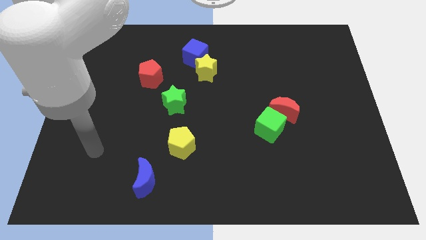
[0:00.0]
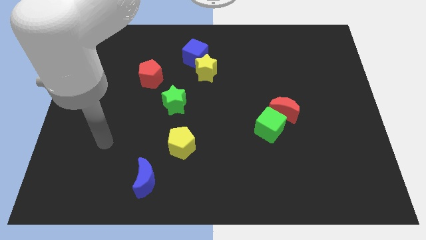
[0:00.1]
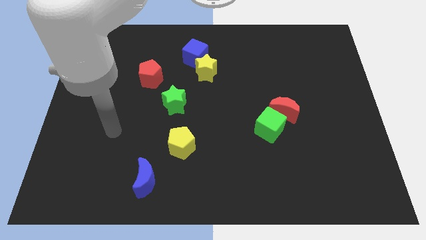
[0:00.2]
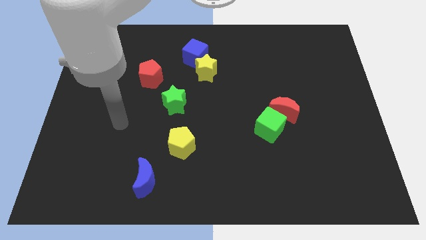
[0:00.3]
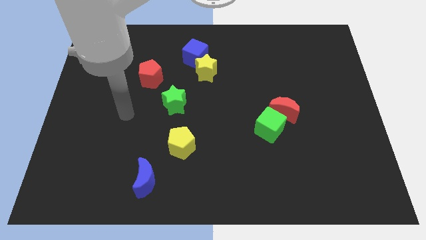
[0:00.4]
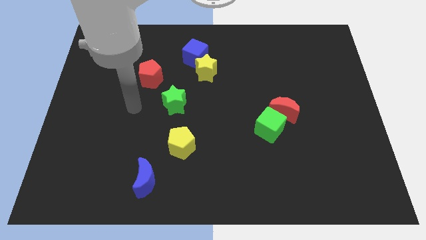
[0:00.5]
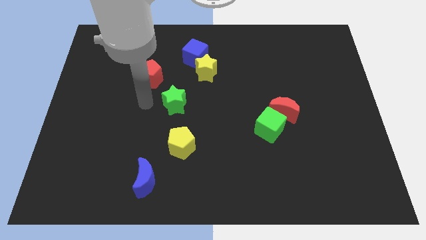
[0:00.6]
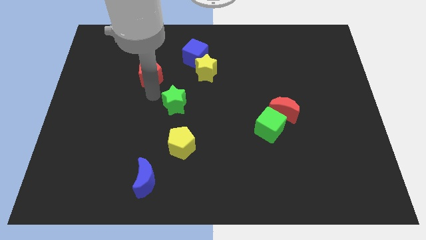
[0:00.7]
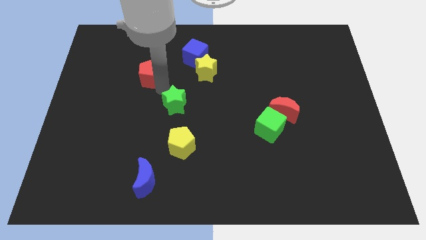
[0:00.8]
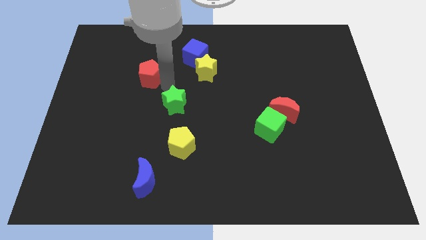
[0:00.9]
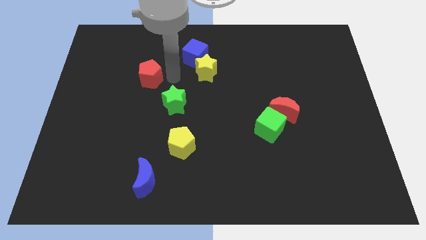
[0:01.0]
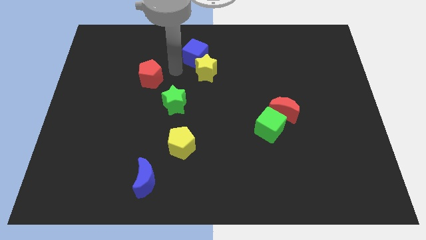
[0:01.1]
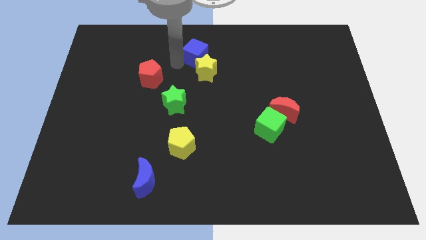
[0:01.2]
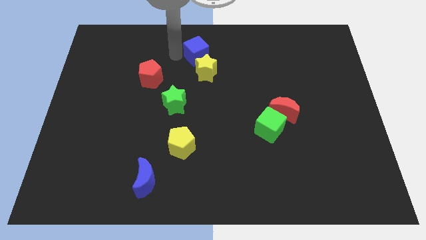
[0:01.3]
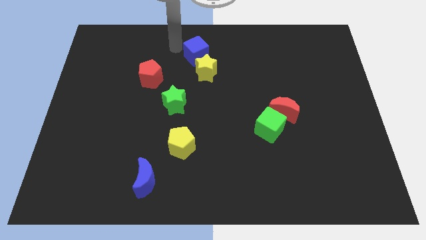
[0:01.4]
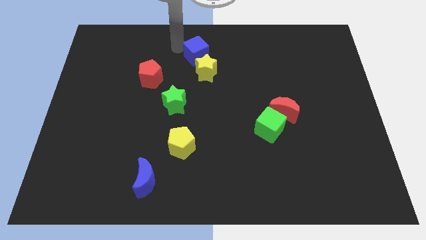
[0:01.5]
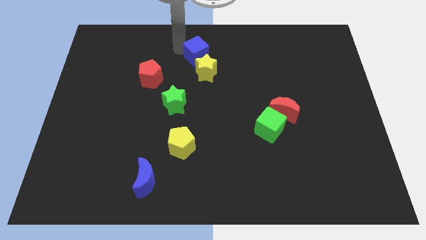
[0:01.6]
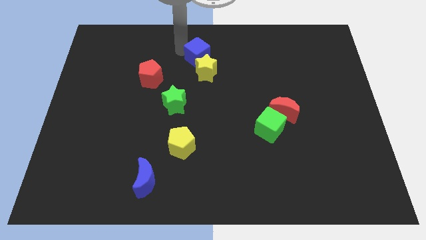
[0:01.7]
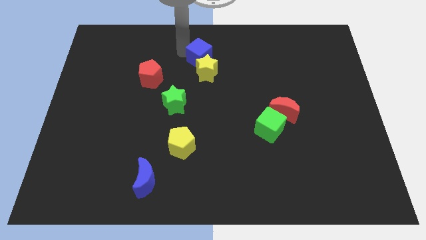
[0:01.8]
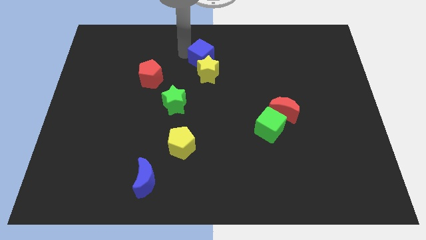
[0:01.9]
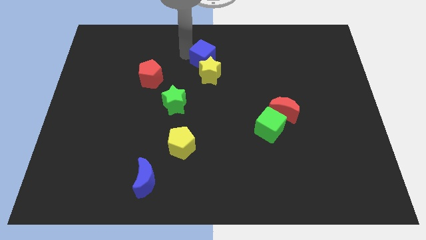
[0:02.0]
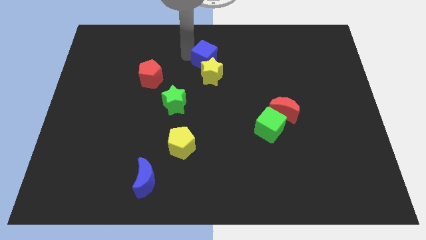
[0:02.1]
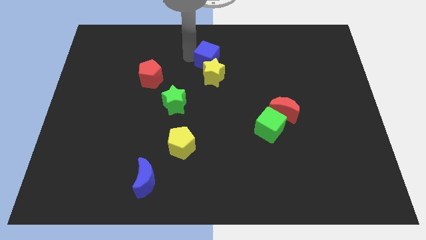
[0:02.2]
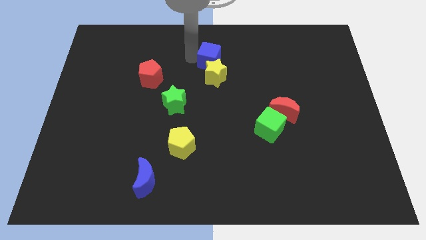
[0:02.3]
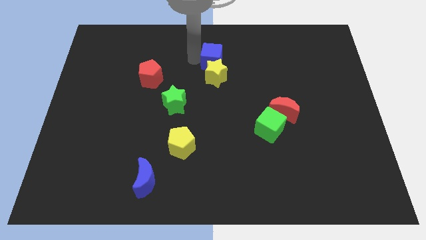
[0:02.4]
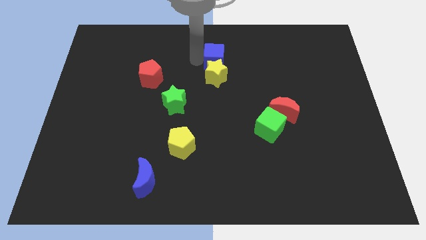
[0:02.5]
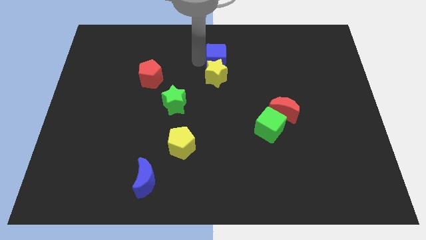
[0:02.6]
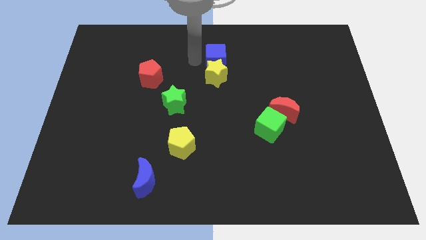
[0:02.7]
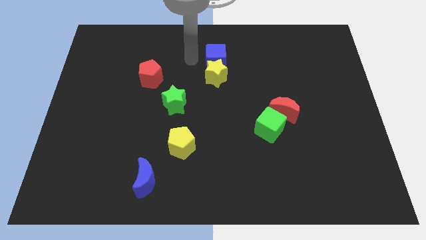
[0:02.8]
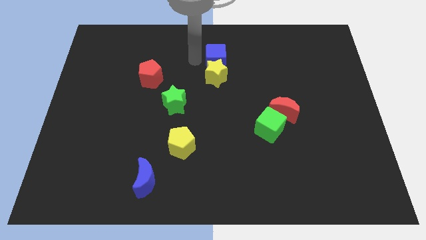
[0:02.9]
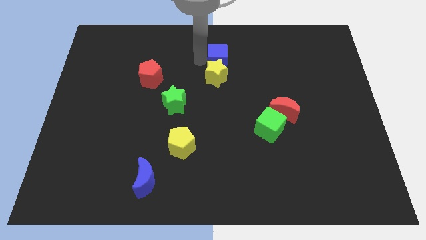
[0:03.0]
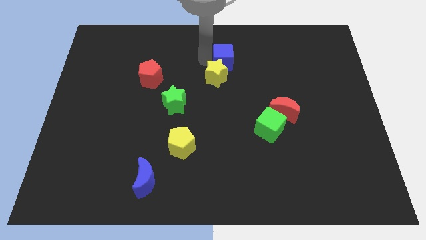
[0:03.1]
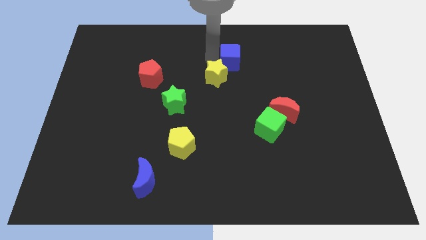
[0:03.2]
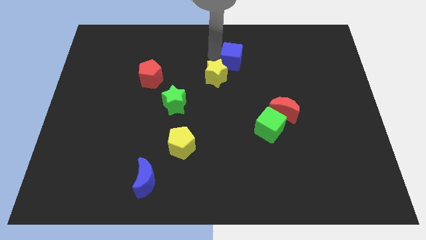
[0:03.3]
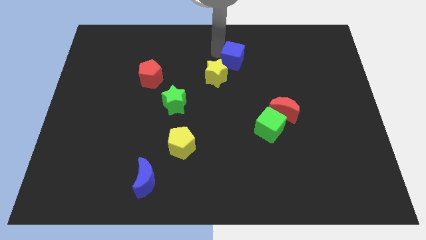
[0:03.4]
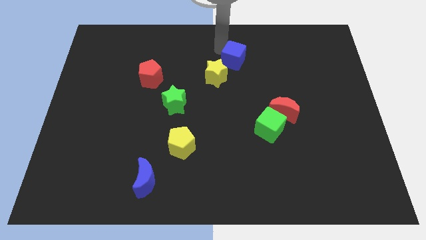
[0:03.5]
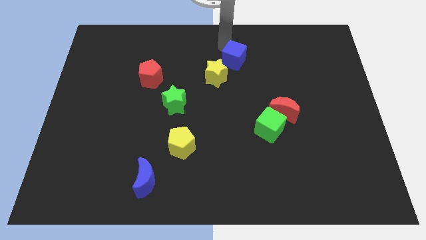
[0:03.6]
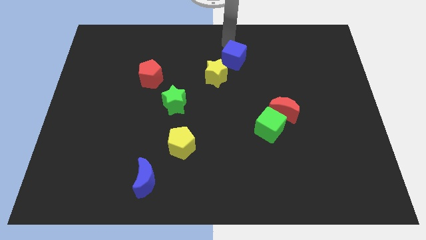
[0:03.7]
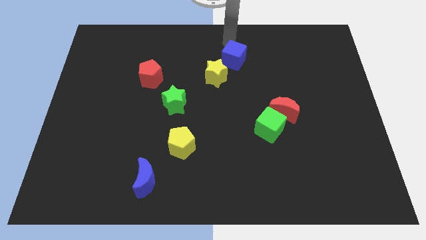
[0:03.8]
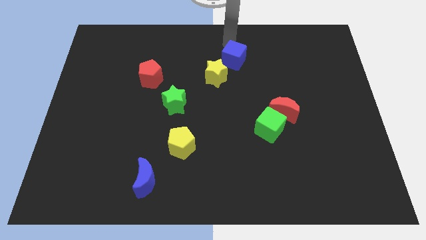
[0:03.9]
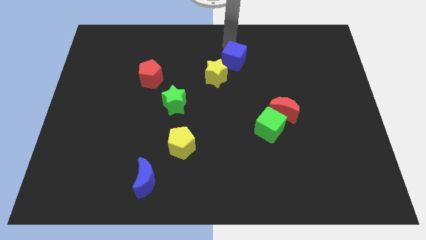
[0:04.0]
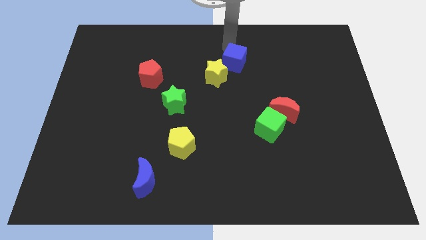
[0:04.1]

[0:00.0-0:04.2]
move the blue cube a little downwards and then right

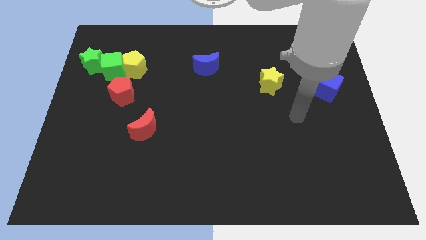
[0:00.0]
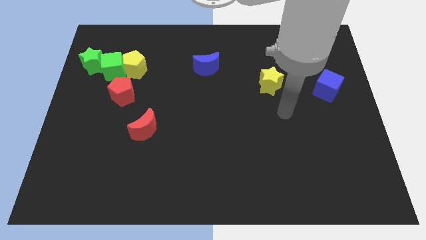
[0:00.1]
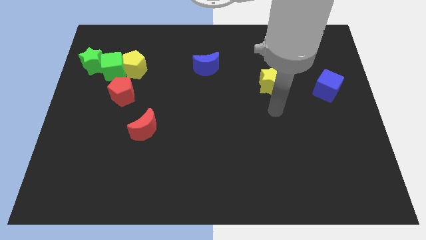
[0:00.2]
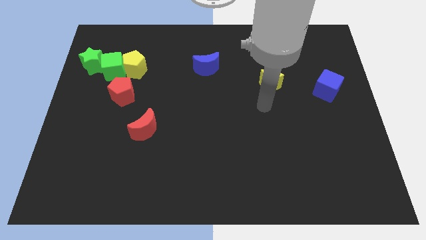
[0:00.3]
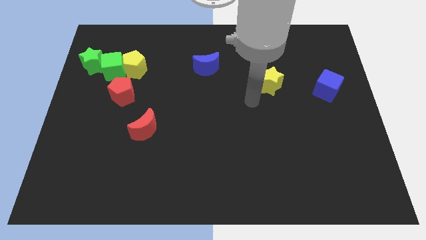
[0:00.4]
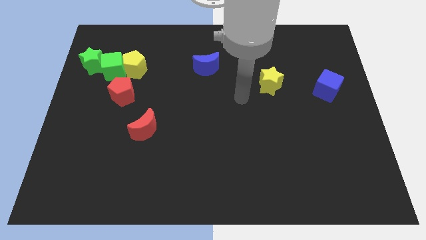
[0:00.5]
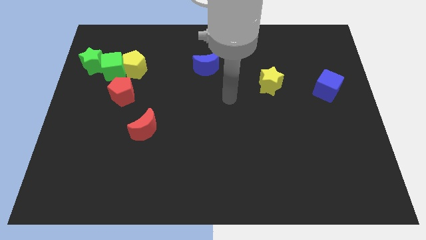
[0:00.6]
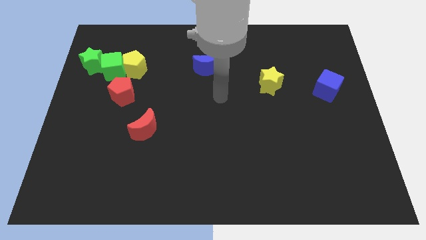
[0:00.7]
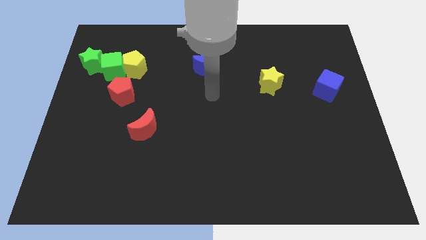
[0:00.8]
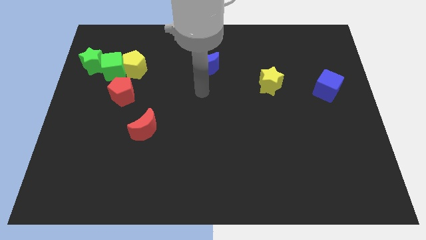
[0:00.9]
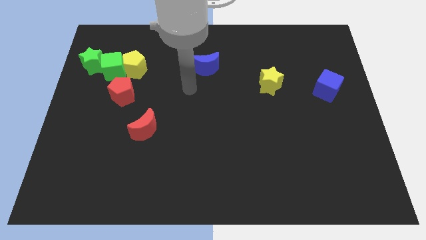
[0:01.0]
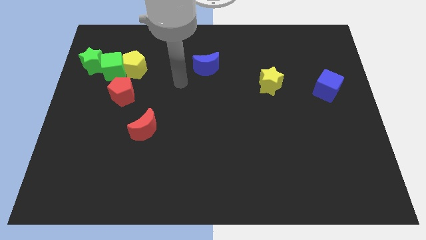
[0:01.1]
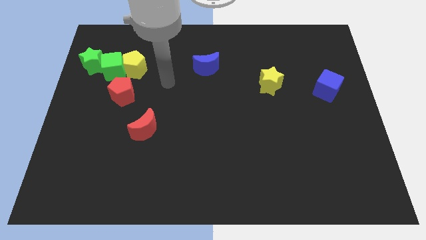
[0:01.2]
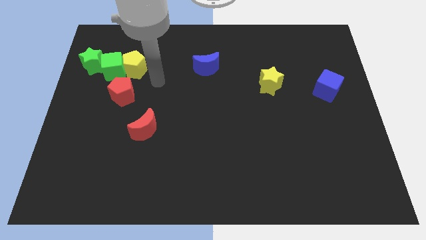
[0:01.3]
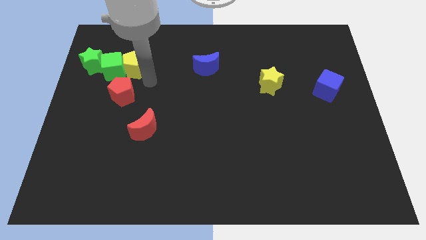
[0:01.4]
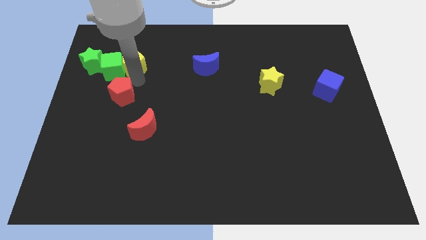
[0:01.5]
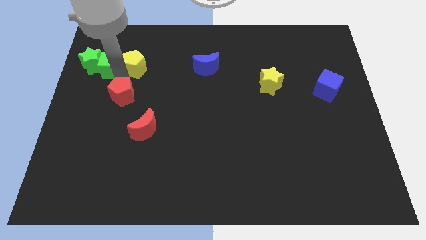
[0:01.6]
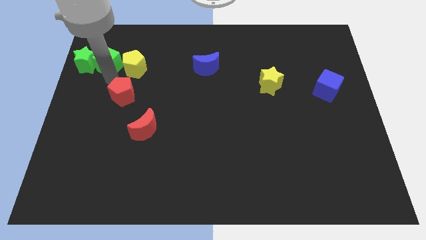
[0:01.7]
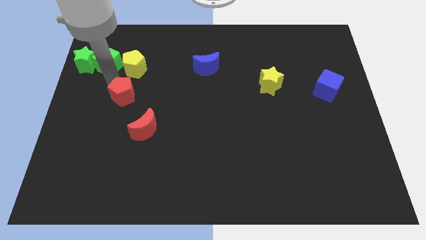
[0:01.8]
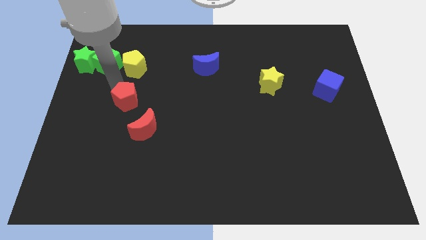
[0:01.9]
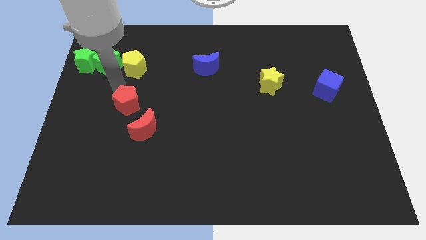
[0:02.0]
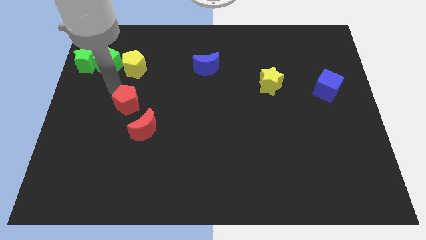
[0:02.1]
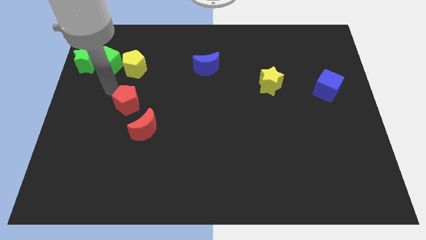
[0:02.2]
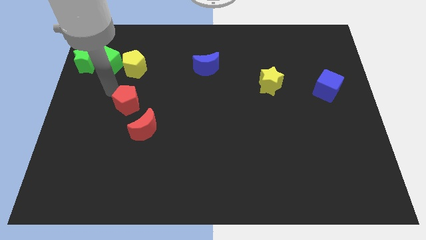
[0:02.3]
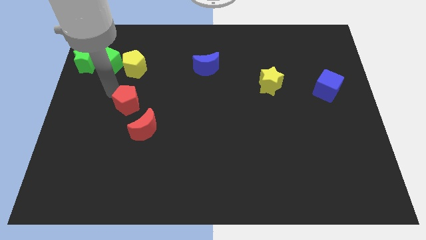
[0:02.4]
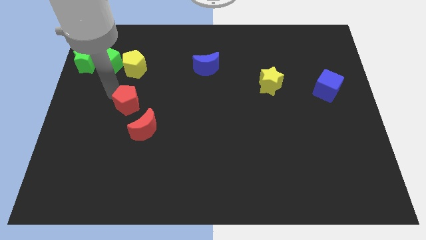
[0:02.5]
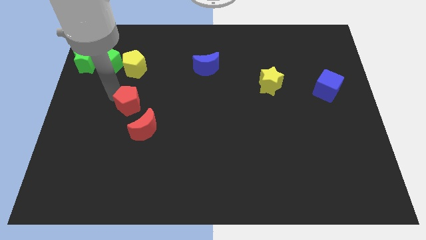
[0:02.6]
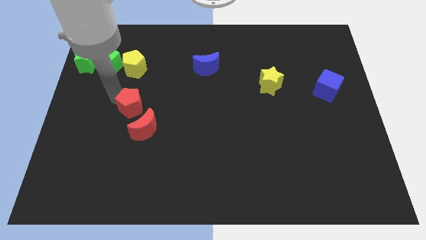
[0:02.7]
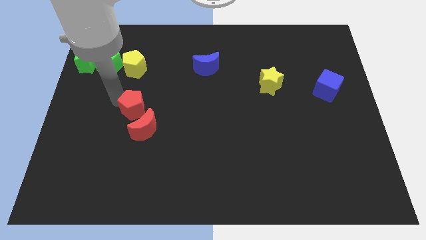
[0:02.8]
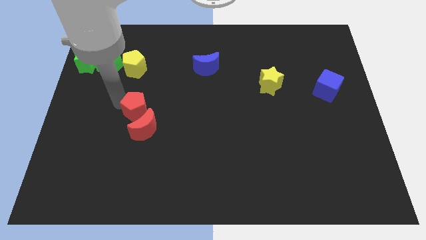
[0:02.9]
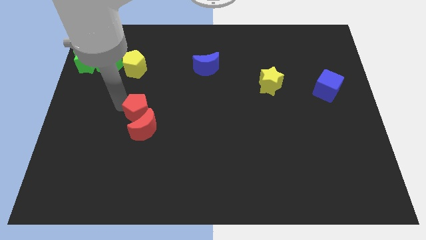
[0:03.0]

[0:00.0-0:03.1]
push the red pentagon a little bit down and then to the right

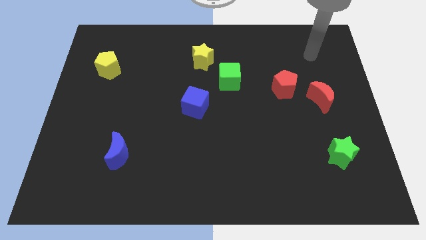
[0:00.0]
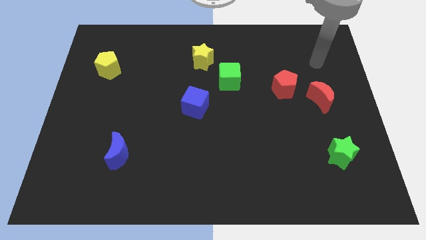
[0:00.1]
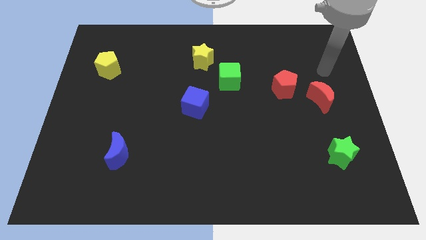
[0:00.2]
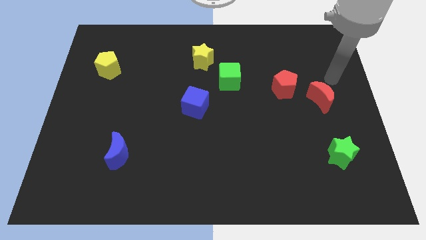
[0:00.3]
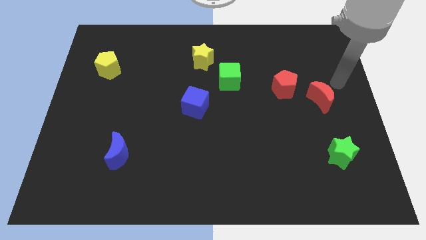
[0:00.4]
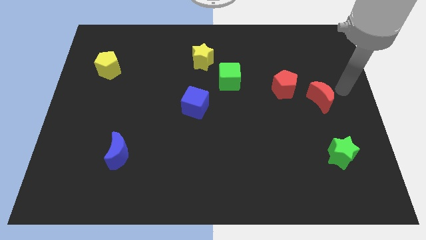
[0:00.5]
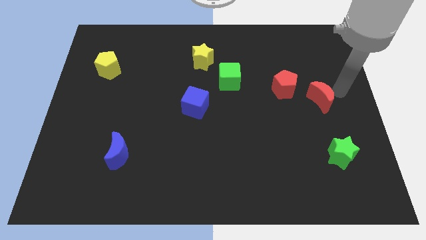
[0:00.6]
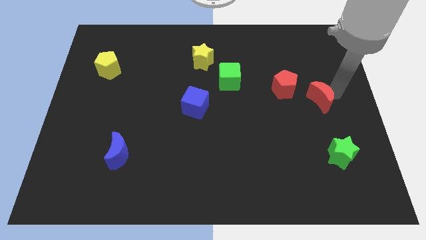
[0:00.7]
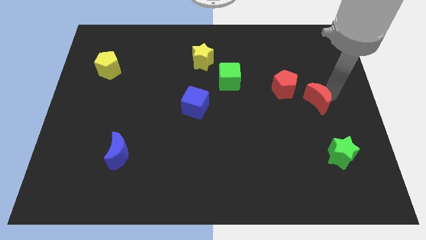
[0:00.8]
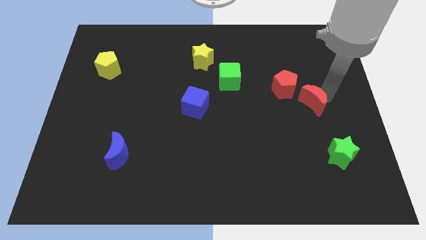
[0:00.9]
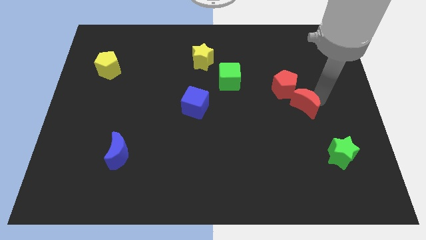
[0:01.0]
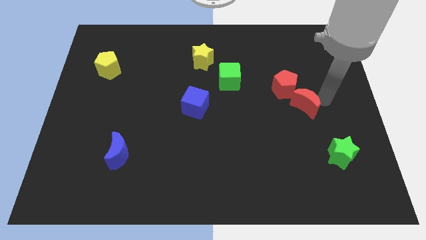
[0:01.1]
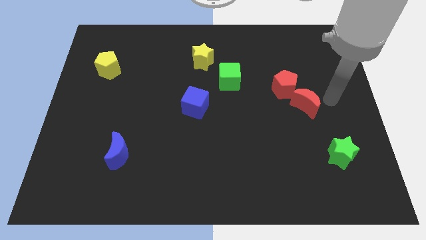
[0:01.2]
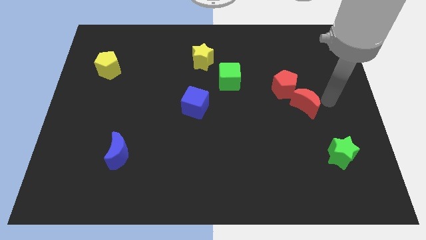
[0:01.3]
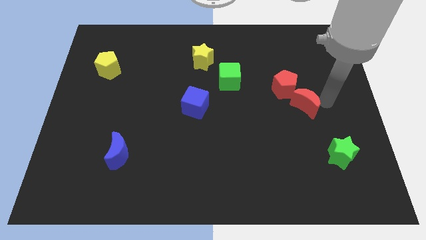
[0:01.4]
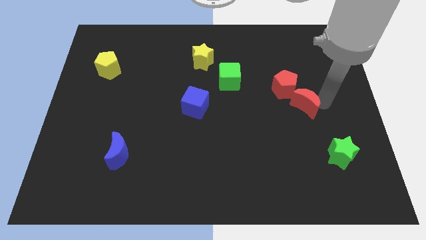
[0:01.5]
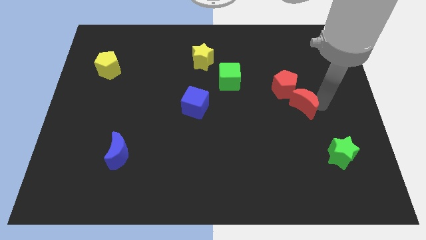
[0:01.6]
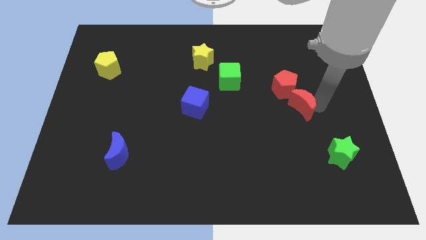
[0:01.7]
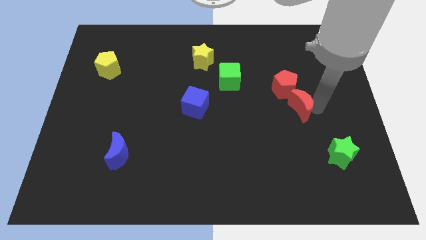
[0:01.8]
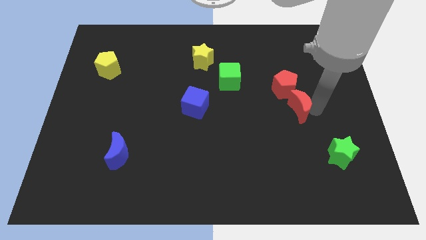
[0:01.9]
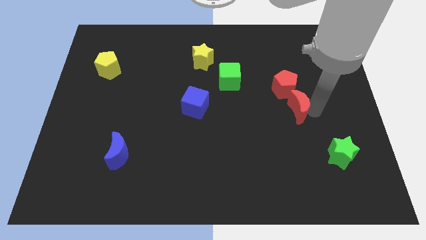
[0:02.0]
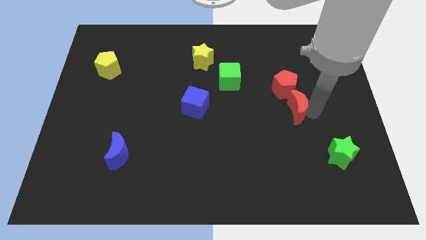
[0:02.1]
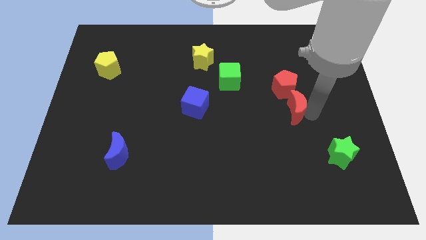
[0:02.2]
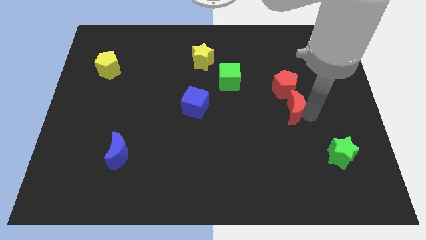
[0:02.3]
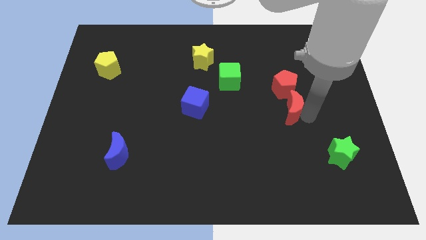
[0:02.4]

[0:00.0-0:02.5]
move the red moon left a little
